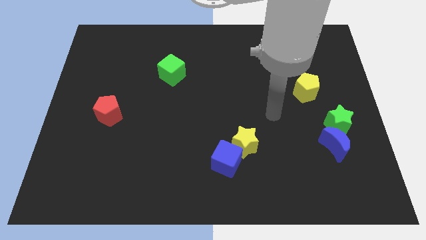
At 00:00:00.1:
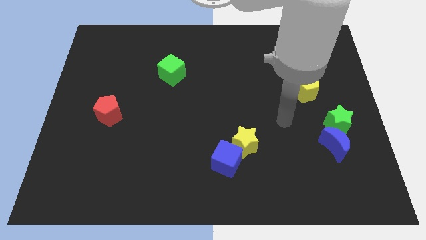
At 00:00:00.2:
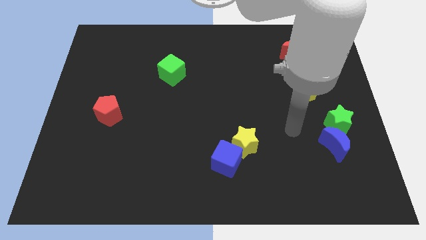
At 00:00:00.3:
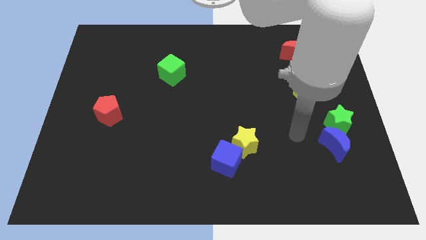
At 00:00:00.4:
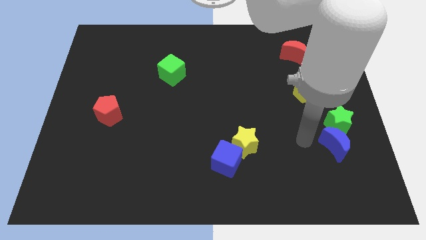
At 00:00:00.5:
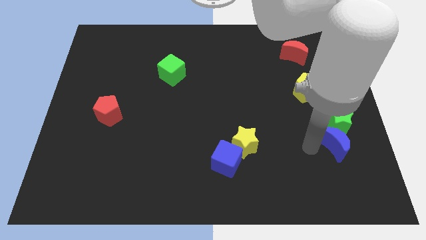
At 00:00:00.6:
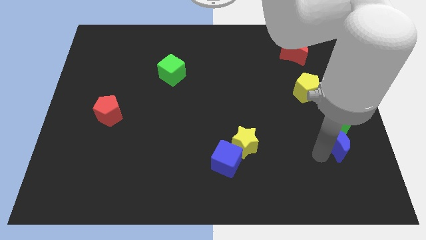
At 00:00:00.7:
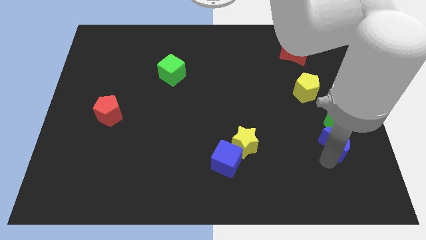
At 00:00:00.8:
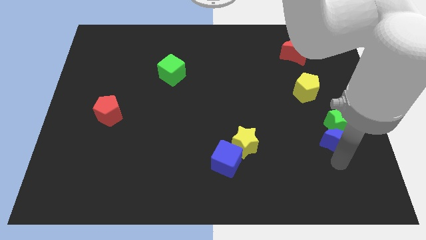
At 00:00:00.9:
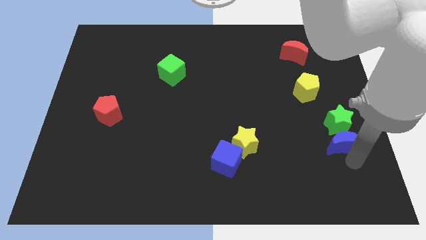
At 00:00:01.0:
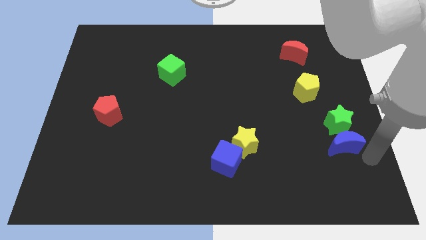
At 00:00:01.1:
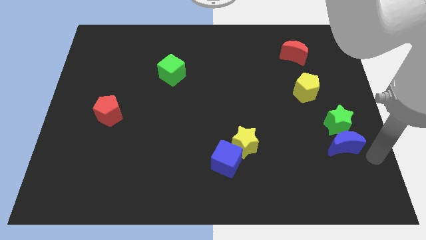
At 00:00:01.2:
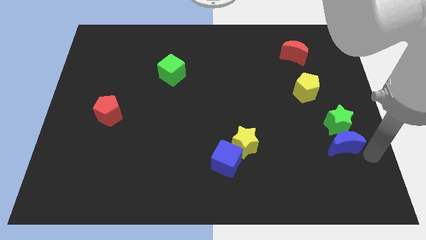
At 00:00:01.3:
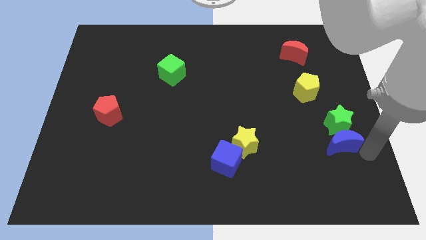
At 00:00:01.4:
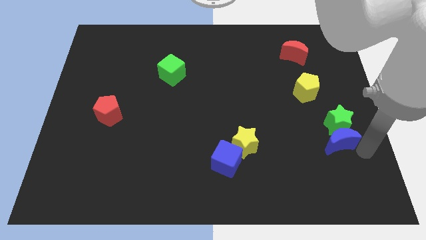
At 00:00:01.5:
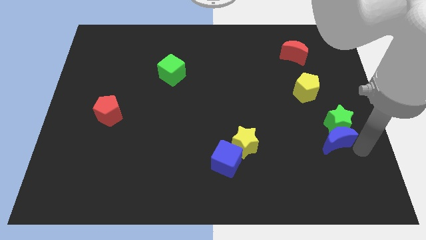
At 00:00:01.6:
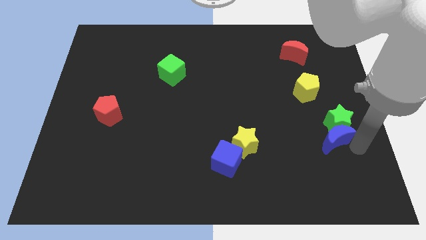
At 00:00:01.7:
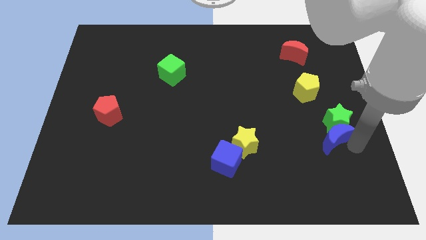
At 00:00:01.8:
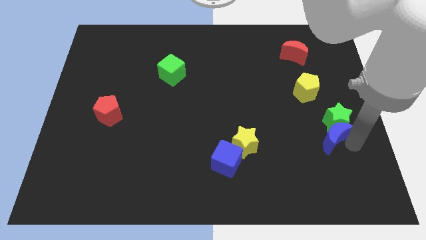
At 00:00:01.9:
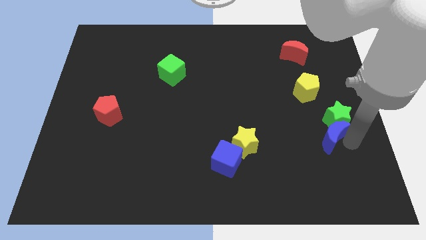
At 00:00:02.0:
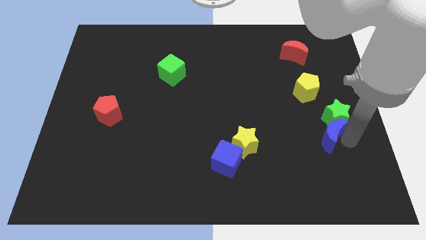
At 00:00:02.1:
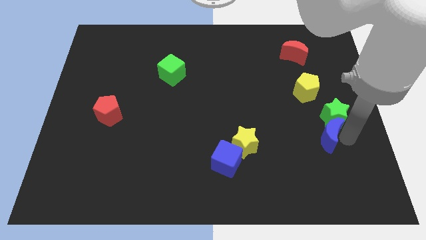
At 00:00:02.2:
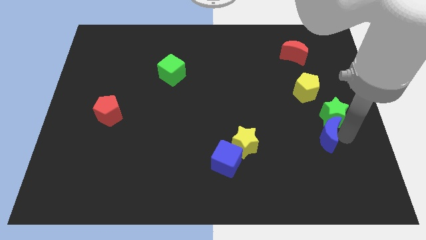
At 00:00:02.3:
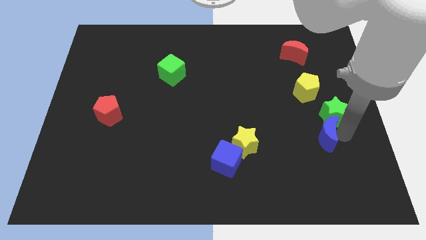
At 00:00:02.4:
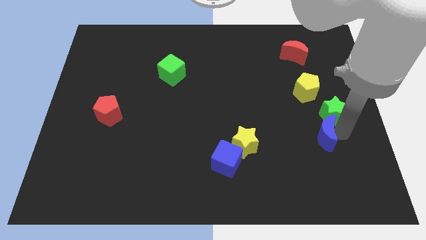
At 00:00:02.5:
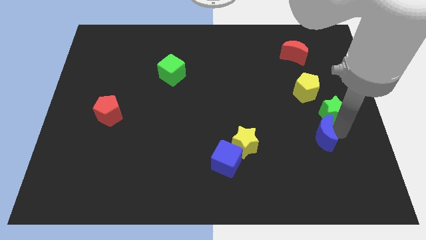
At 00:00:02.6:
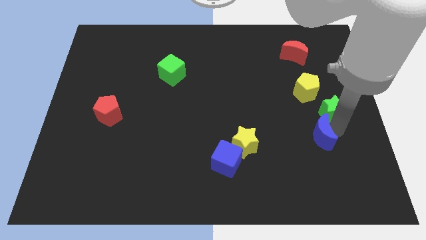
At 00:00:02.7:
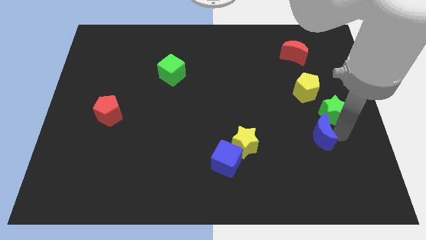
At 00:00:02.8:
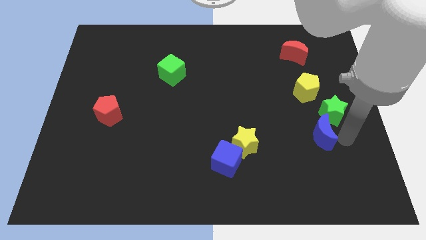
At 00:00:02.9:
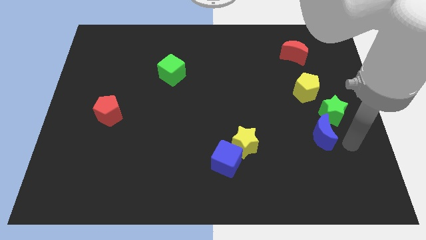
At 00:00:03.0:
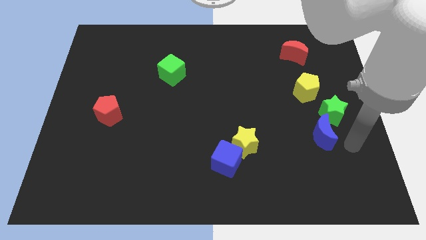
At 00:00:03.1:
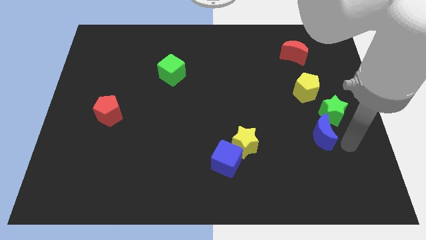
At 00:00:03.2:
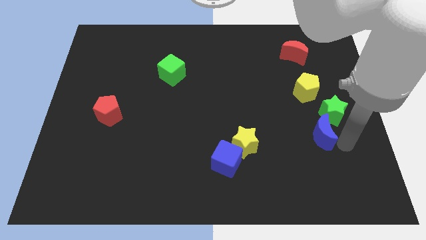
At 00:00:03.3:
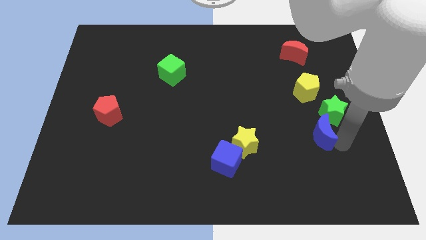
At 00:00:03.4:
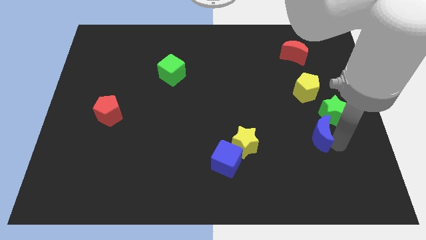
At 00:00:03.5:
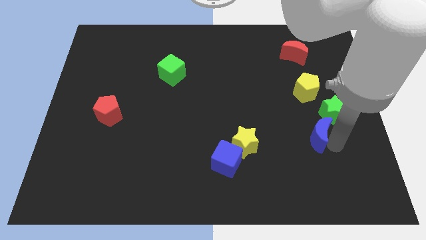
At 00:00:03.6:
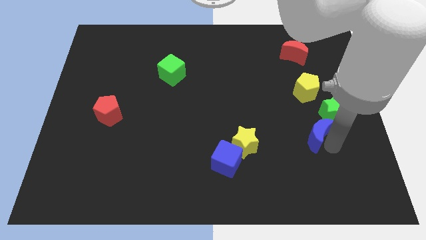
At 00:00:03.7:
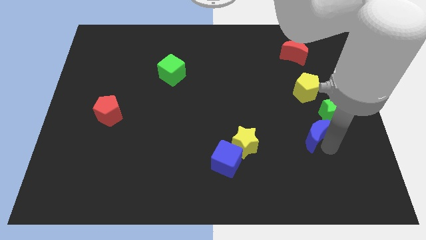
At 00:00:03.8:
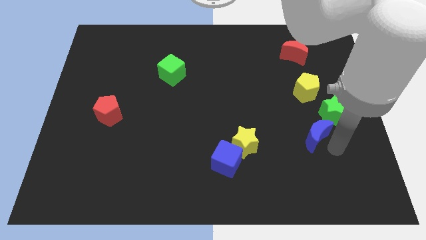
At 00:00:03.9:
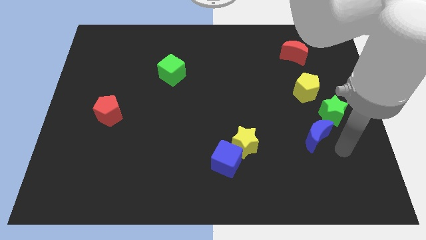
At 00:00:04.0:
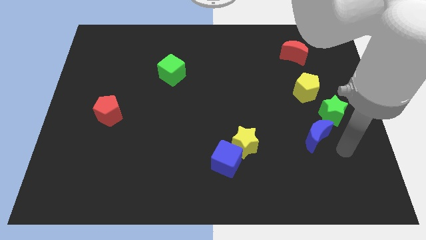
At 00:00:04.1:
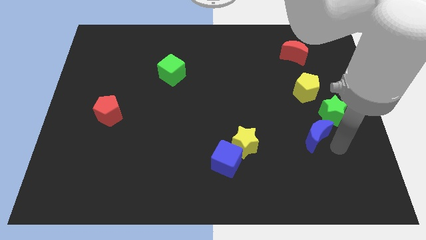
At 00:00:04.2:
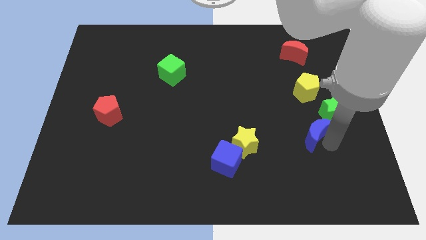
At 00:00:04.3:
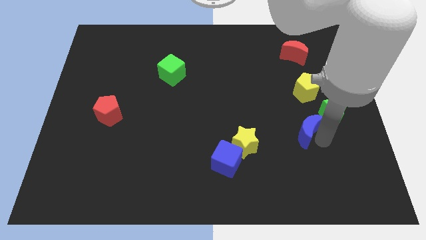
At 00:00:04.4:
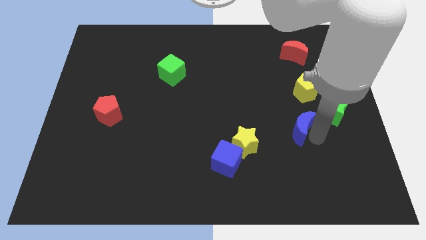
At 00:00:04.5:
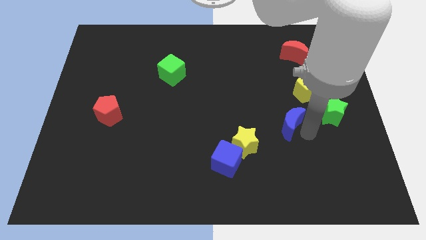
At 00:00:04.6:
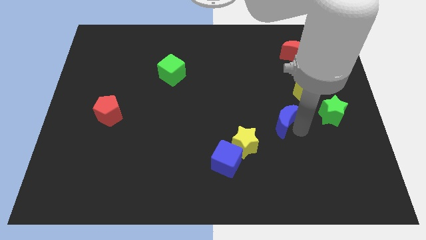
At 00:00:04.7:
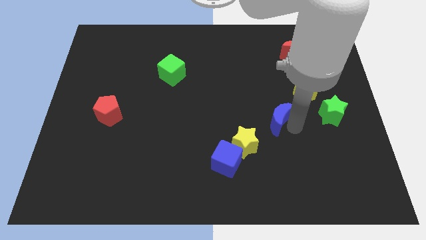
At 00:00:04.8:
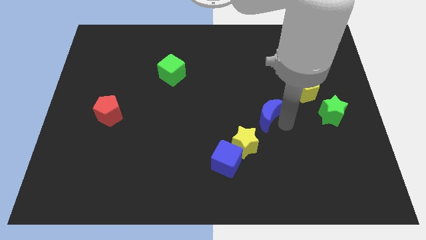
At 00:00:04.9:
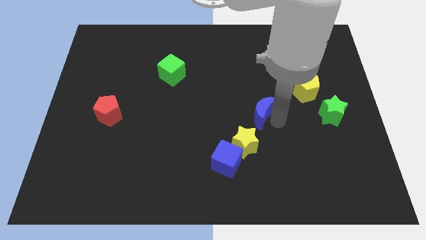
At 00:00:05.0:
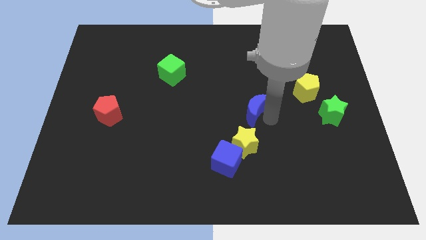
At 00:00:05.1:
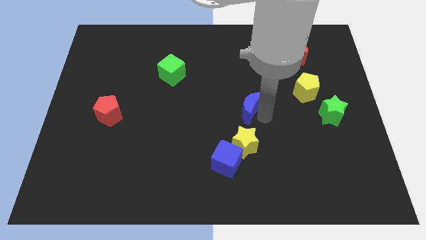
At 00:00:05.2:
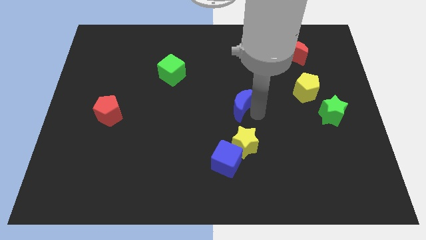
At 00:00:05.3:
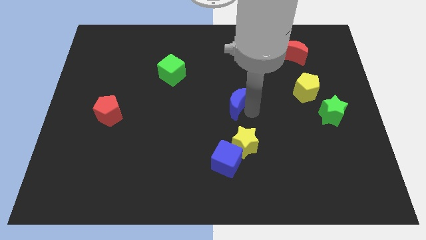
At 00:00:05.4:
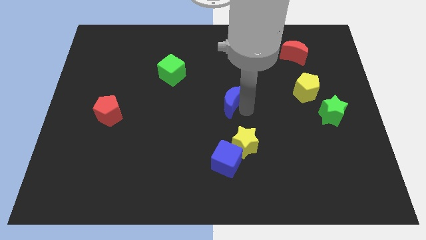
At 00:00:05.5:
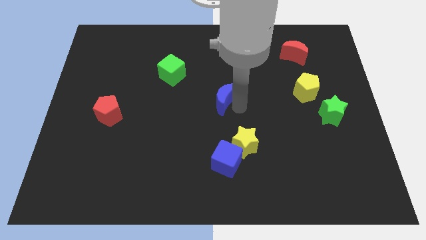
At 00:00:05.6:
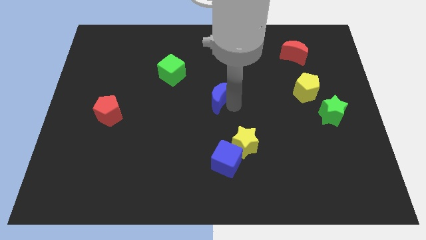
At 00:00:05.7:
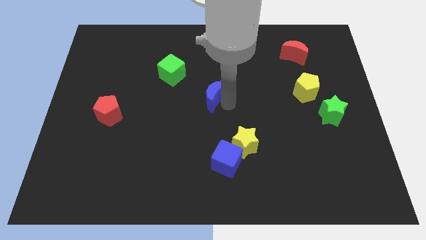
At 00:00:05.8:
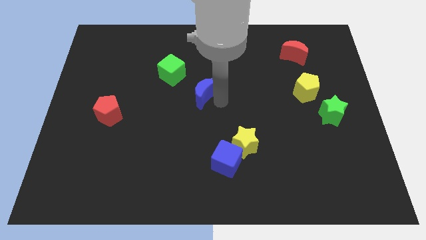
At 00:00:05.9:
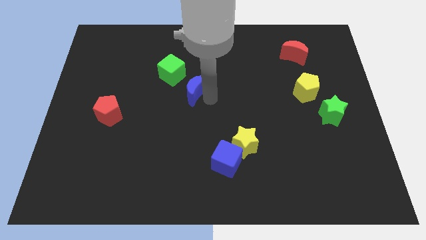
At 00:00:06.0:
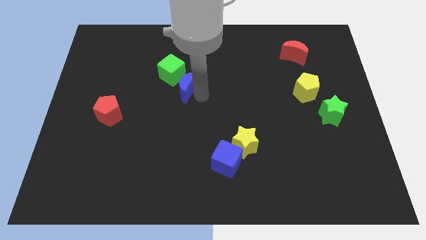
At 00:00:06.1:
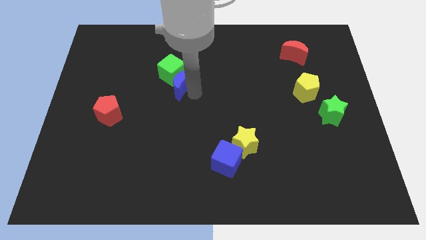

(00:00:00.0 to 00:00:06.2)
move the blue moon next to the green cube

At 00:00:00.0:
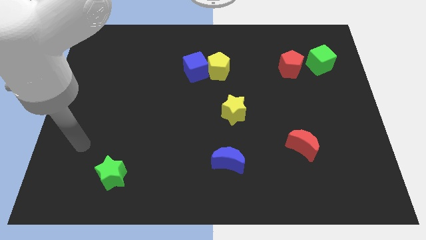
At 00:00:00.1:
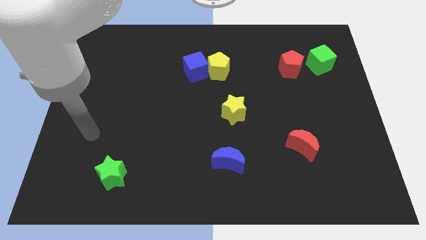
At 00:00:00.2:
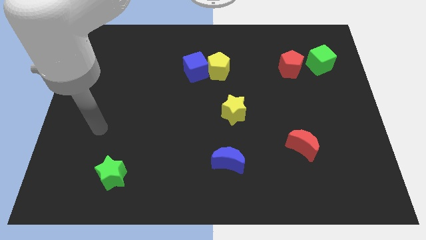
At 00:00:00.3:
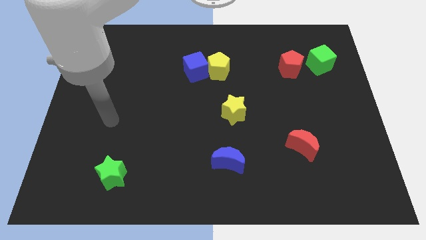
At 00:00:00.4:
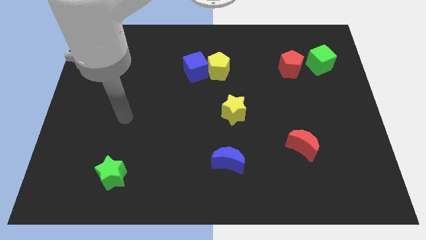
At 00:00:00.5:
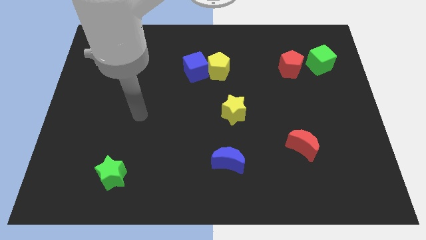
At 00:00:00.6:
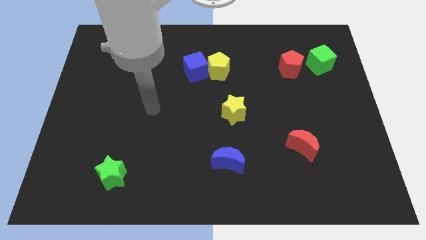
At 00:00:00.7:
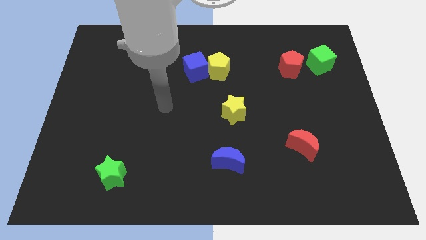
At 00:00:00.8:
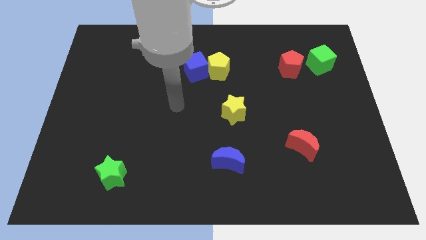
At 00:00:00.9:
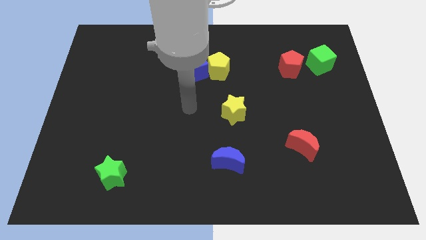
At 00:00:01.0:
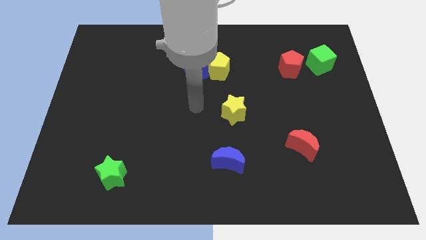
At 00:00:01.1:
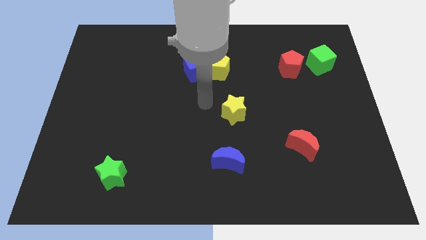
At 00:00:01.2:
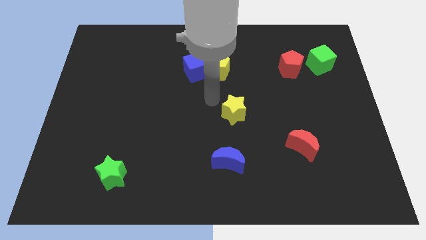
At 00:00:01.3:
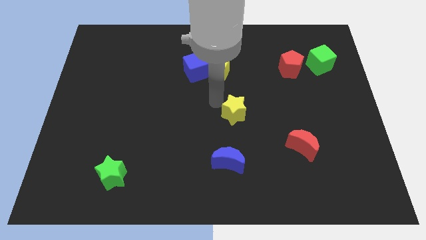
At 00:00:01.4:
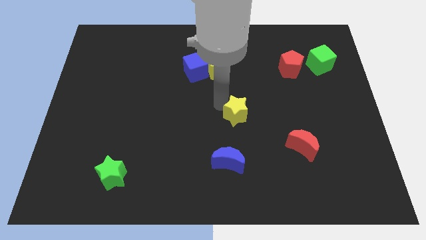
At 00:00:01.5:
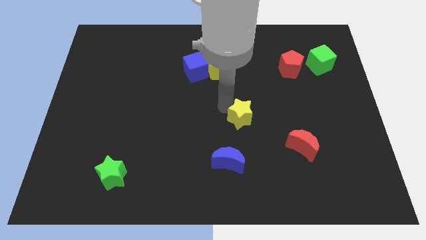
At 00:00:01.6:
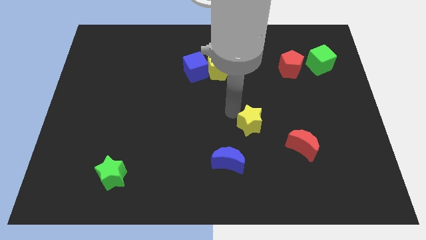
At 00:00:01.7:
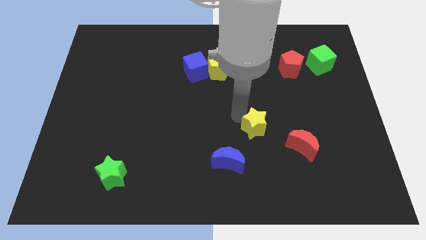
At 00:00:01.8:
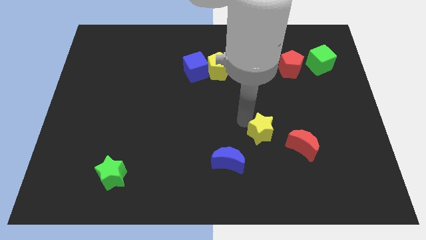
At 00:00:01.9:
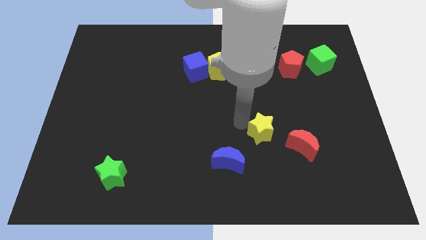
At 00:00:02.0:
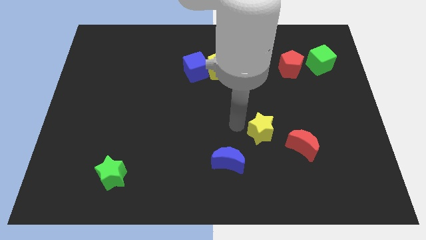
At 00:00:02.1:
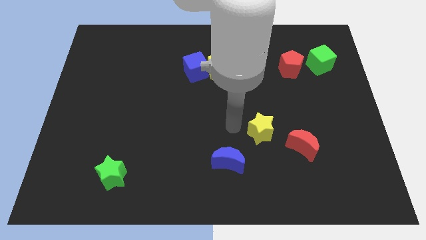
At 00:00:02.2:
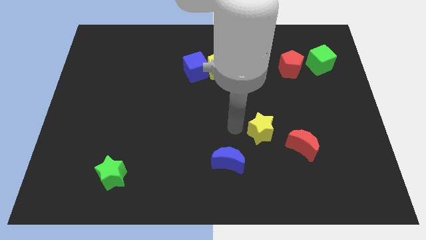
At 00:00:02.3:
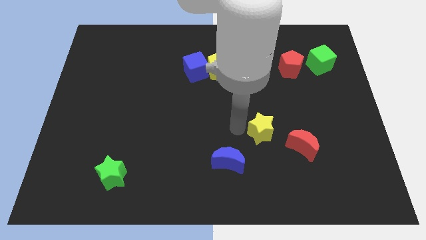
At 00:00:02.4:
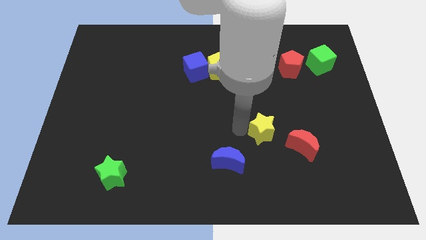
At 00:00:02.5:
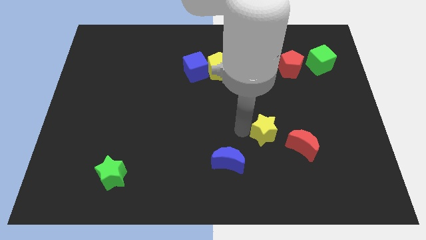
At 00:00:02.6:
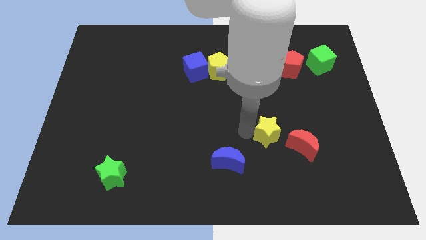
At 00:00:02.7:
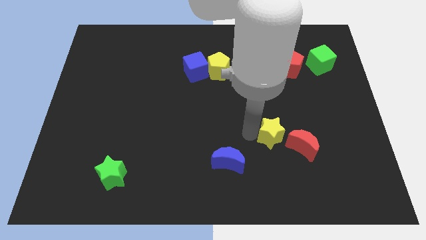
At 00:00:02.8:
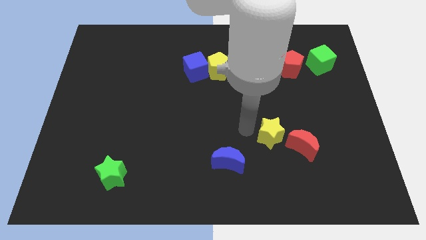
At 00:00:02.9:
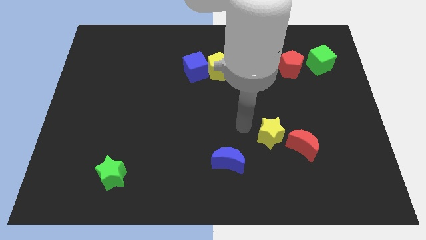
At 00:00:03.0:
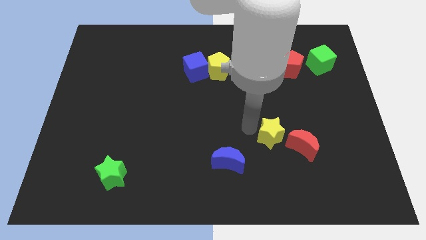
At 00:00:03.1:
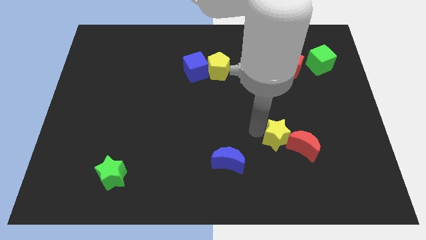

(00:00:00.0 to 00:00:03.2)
move the yellow star to the red moon
